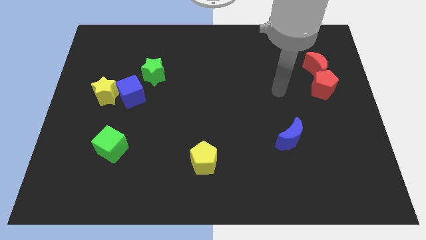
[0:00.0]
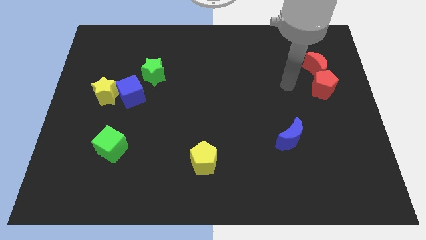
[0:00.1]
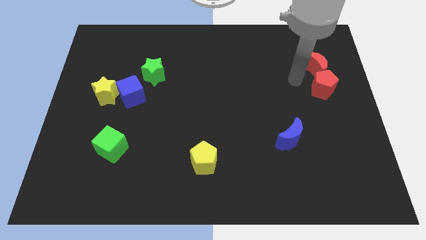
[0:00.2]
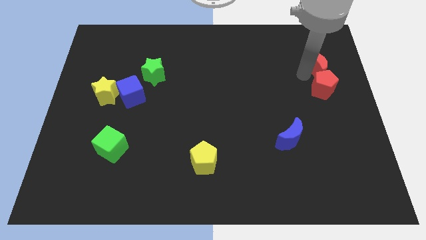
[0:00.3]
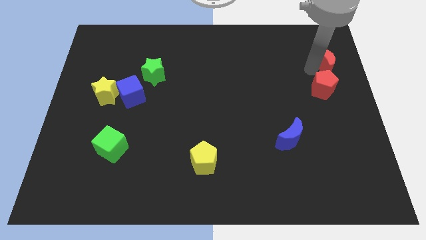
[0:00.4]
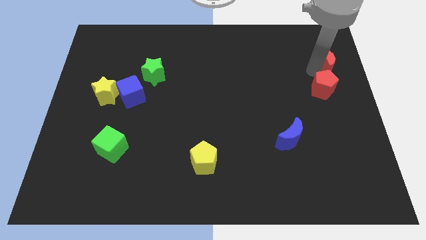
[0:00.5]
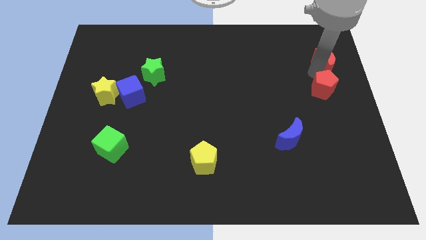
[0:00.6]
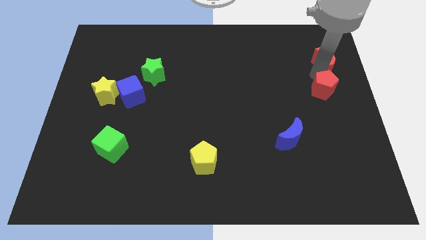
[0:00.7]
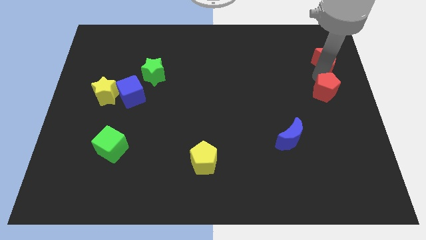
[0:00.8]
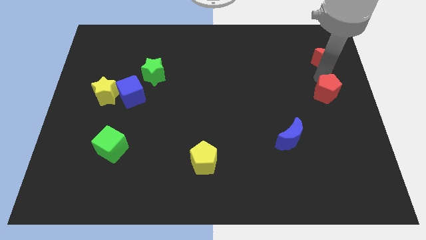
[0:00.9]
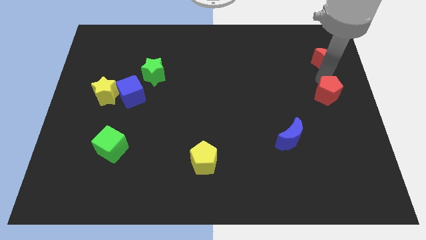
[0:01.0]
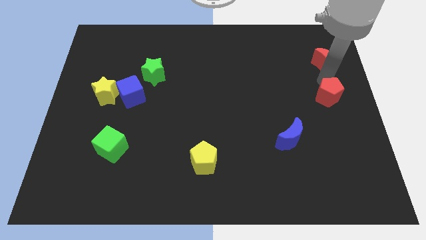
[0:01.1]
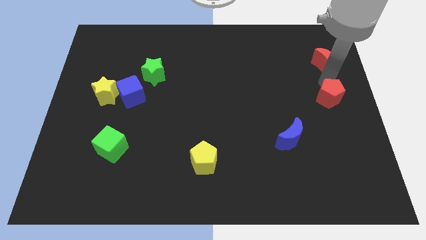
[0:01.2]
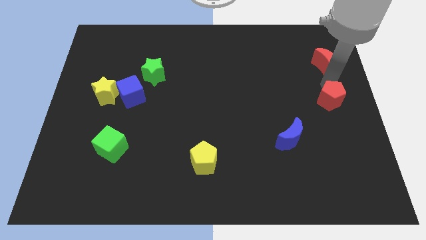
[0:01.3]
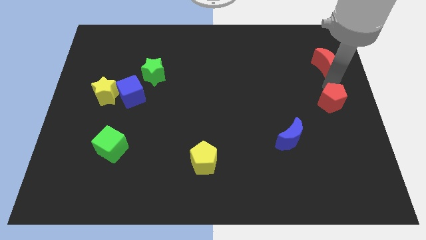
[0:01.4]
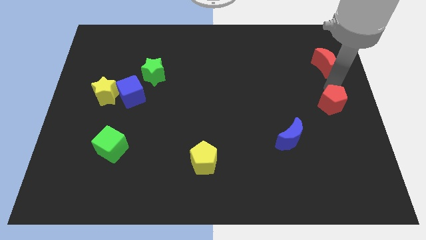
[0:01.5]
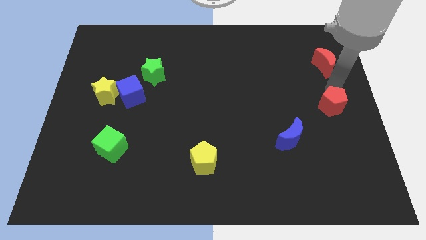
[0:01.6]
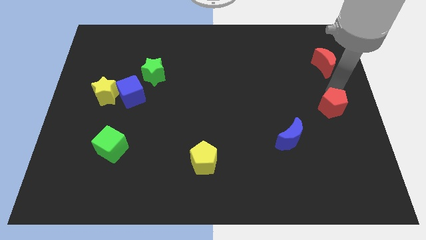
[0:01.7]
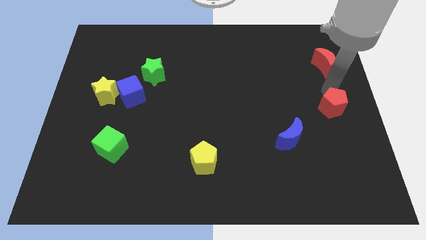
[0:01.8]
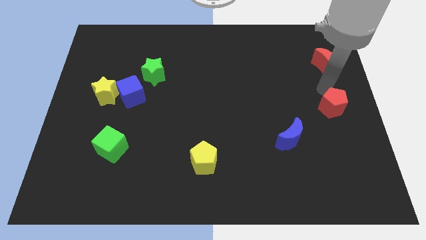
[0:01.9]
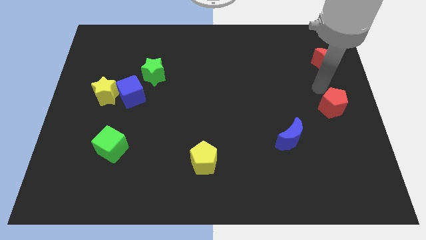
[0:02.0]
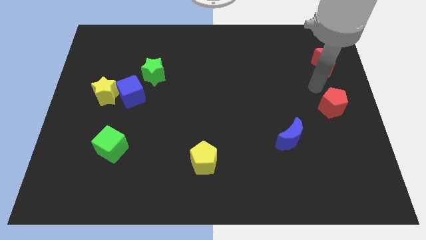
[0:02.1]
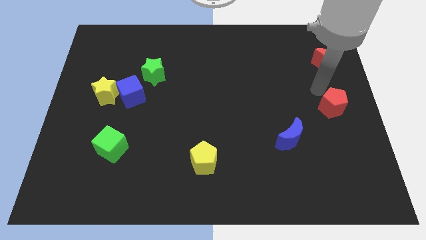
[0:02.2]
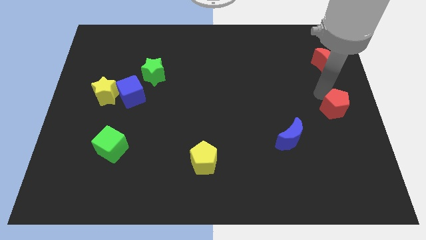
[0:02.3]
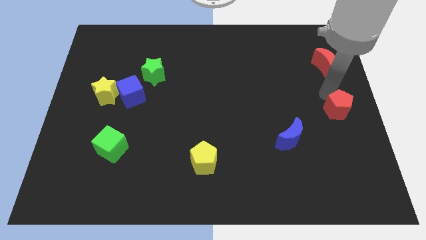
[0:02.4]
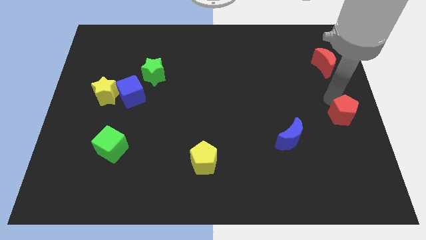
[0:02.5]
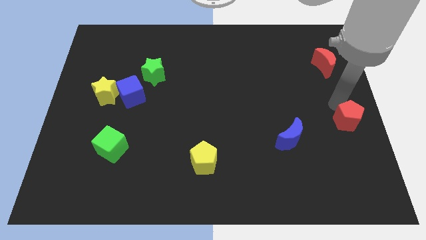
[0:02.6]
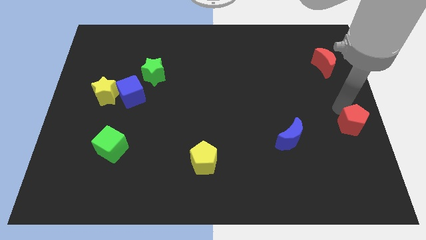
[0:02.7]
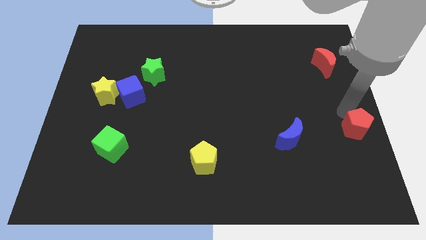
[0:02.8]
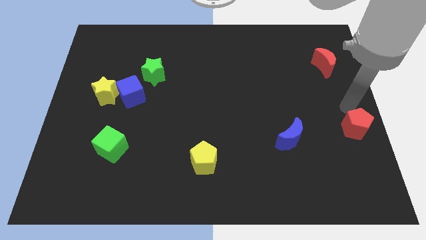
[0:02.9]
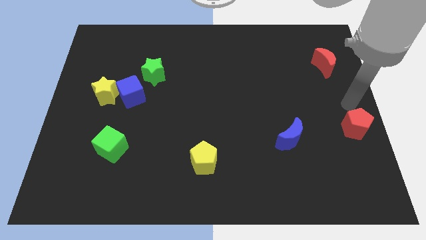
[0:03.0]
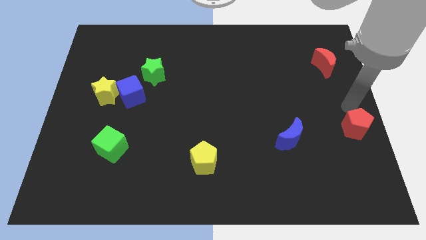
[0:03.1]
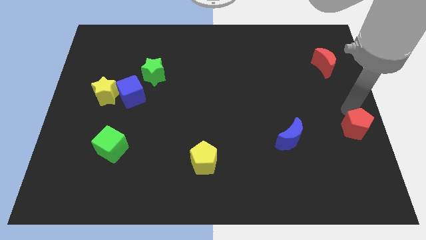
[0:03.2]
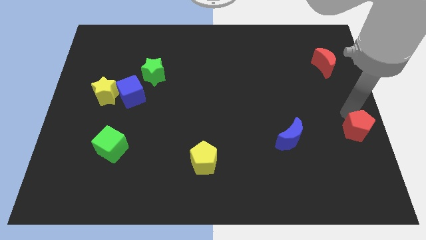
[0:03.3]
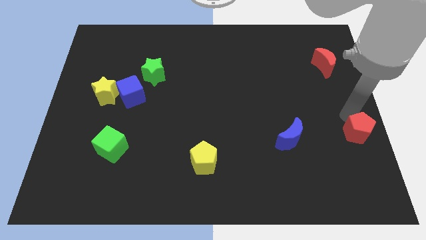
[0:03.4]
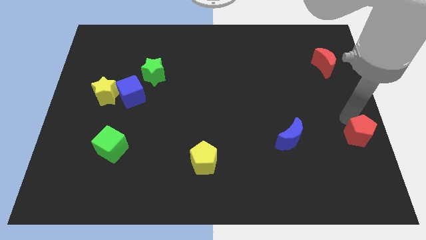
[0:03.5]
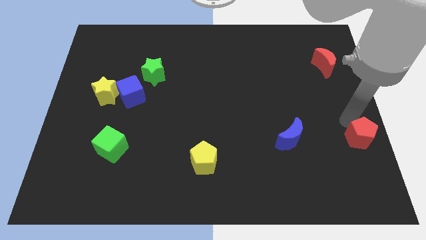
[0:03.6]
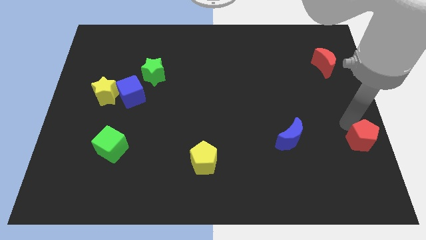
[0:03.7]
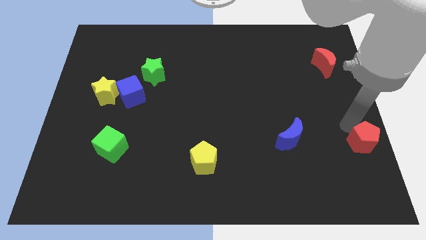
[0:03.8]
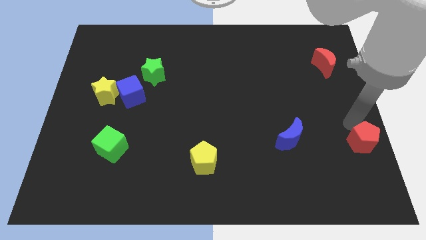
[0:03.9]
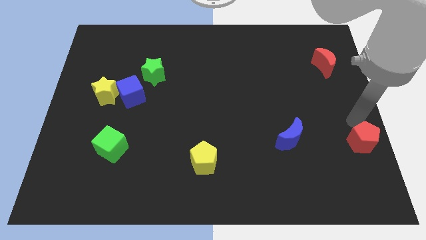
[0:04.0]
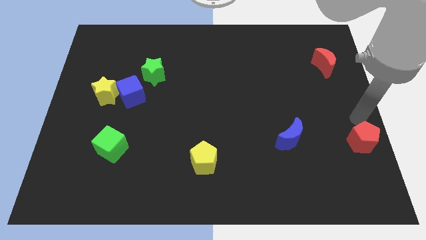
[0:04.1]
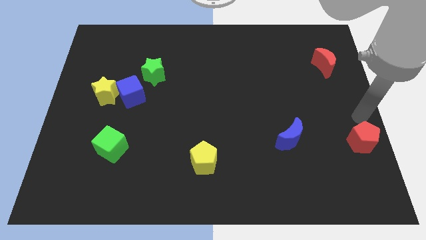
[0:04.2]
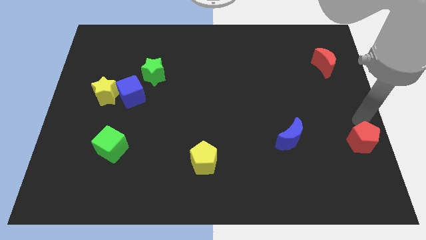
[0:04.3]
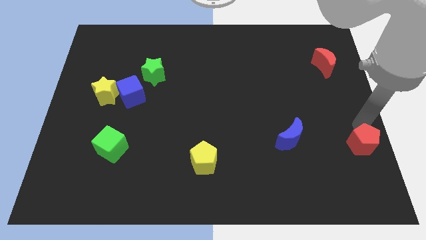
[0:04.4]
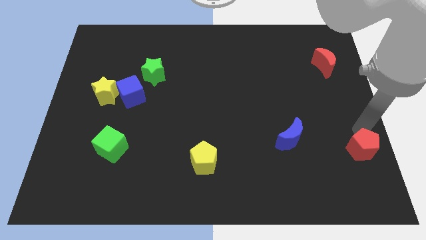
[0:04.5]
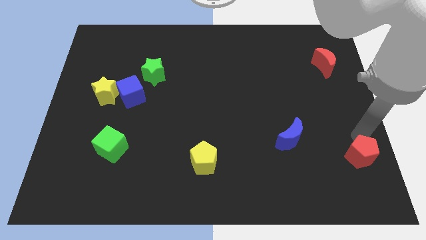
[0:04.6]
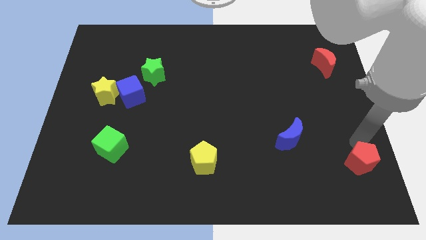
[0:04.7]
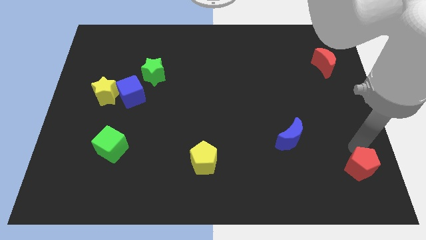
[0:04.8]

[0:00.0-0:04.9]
move the red pentagon to the bottom right corner

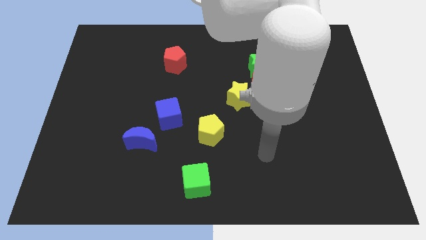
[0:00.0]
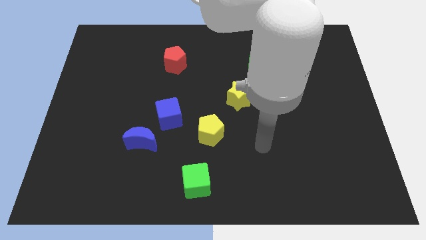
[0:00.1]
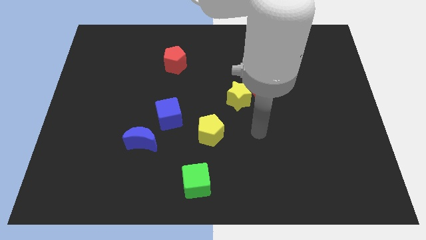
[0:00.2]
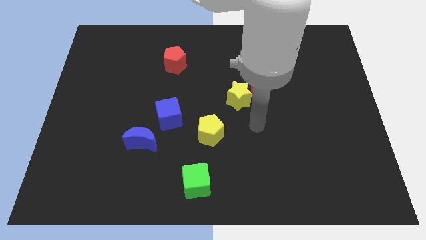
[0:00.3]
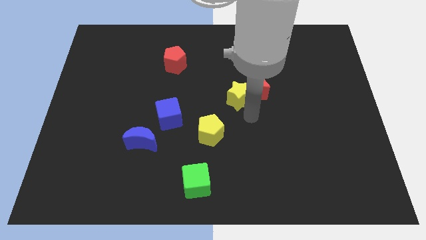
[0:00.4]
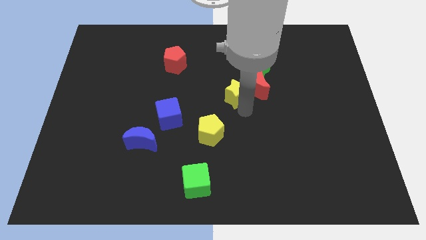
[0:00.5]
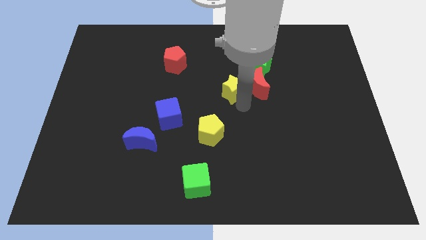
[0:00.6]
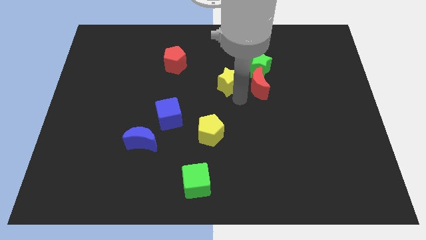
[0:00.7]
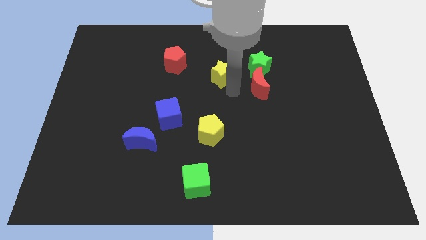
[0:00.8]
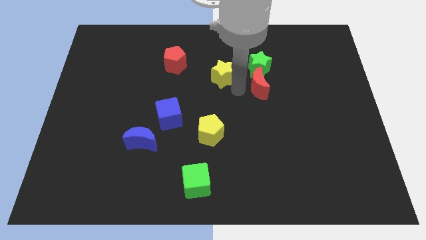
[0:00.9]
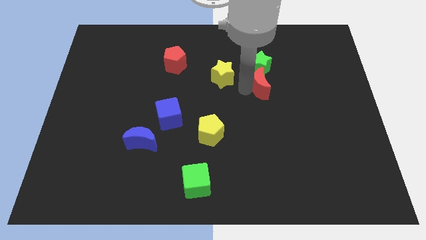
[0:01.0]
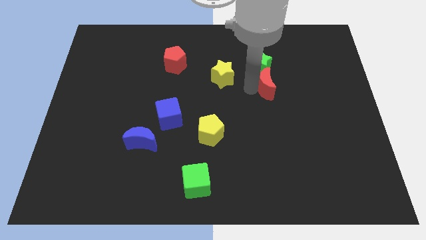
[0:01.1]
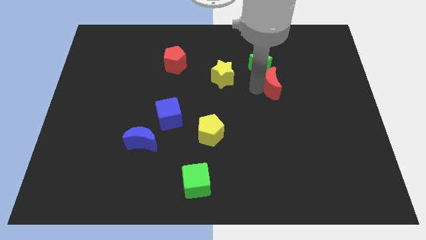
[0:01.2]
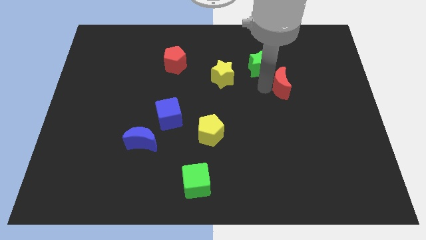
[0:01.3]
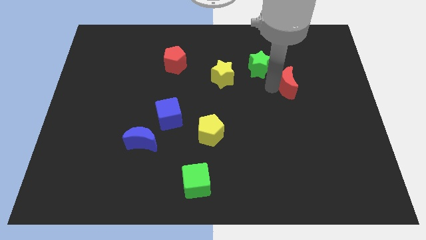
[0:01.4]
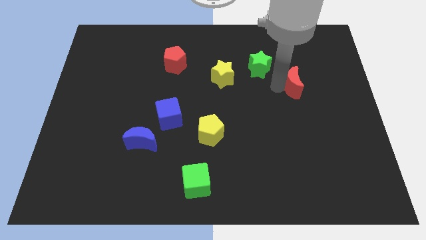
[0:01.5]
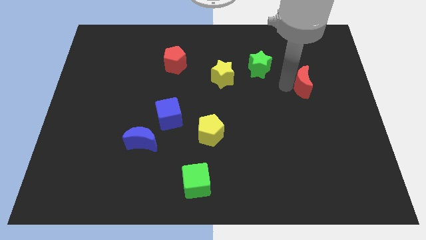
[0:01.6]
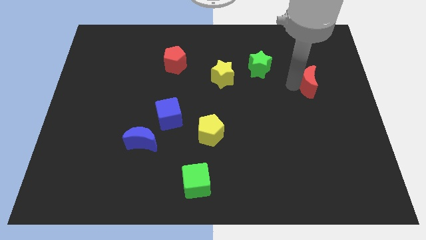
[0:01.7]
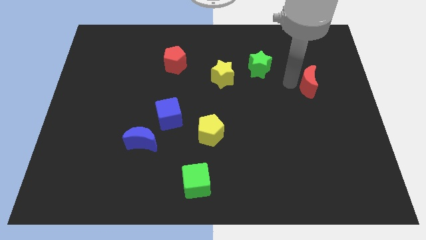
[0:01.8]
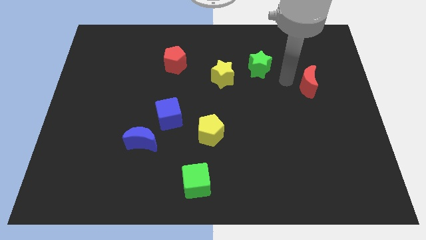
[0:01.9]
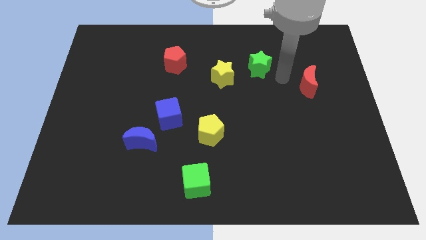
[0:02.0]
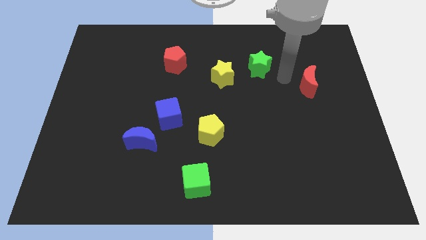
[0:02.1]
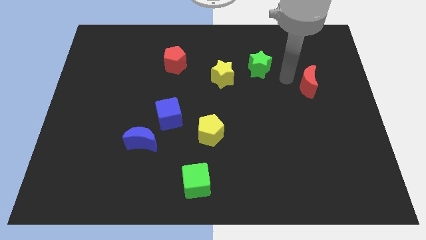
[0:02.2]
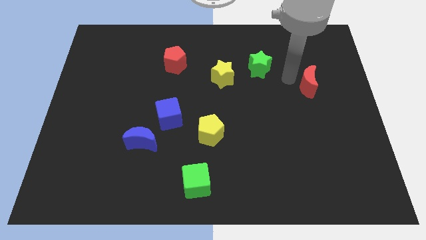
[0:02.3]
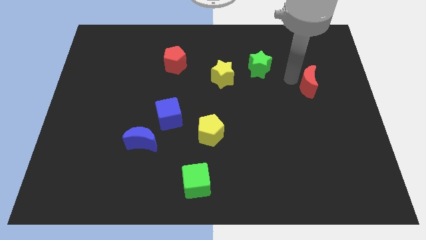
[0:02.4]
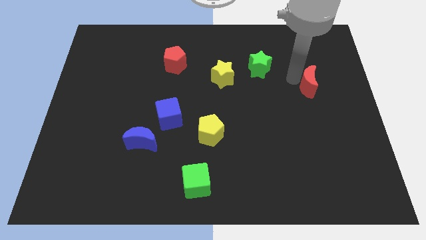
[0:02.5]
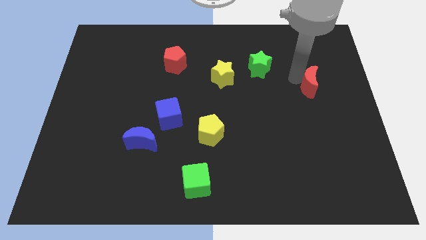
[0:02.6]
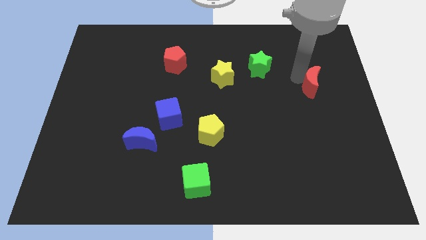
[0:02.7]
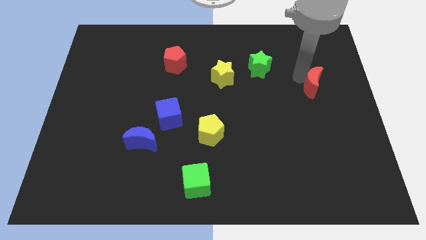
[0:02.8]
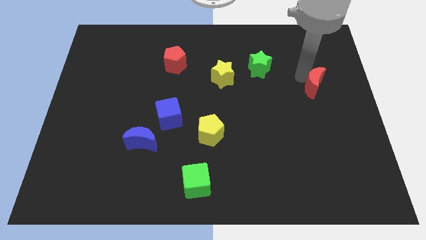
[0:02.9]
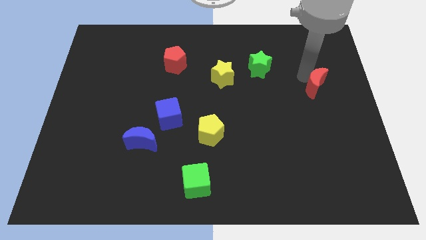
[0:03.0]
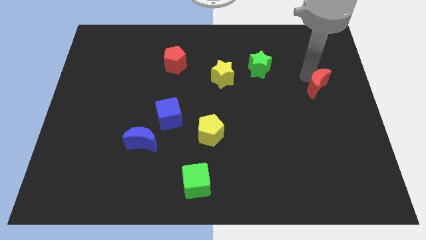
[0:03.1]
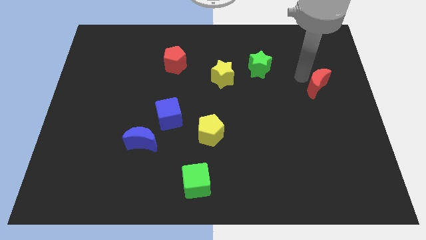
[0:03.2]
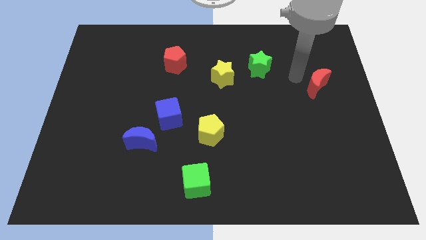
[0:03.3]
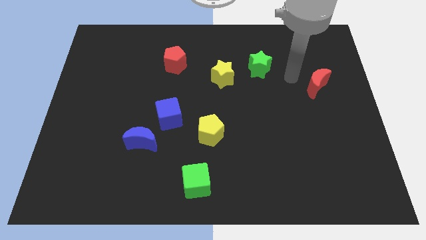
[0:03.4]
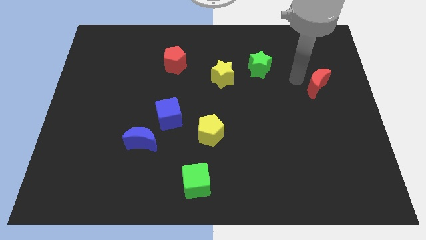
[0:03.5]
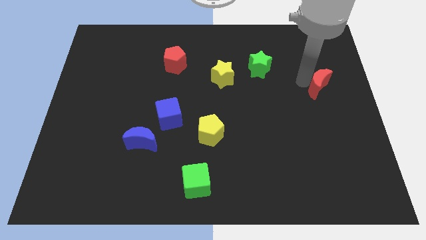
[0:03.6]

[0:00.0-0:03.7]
slide the red moon to the center right
